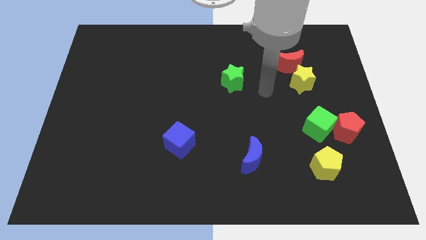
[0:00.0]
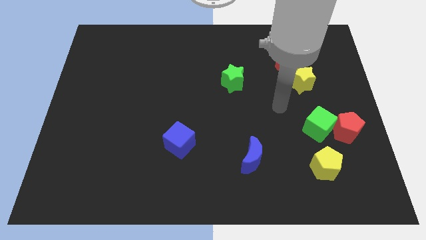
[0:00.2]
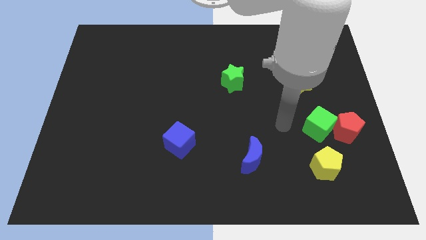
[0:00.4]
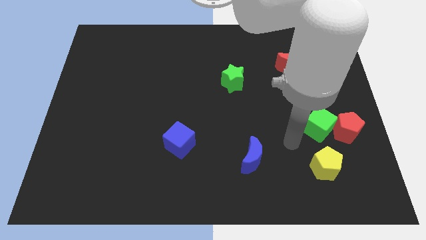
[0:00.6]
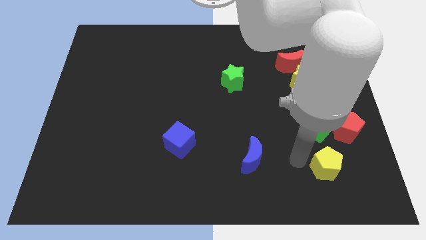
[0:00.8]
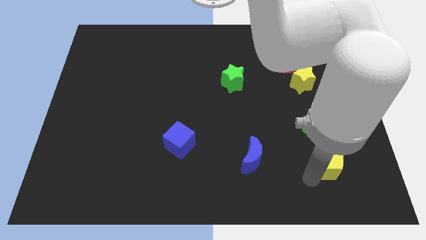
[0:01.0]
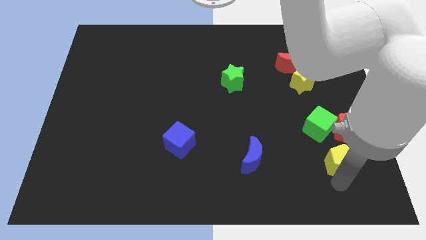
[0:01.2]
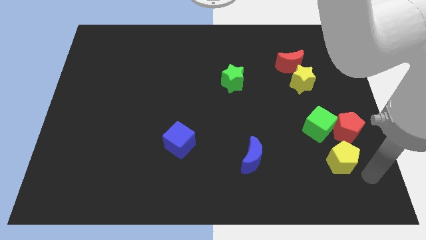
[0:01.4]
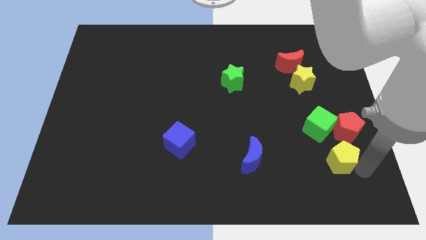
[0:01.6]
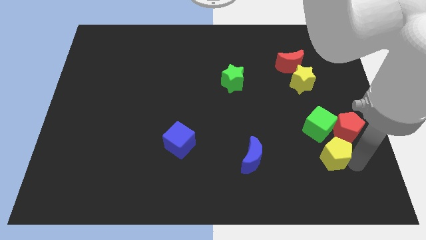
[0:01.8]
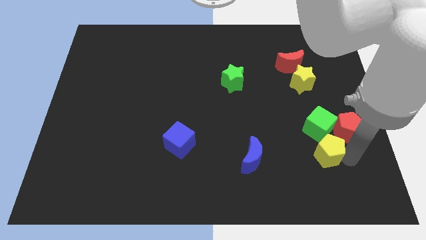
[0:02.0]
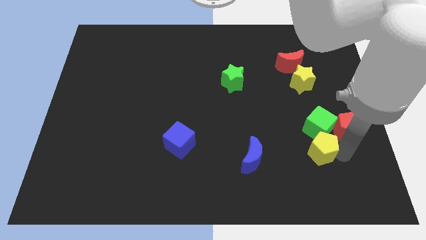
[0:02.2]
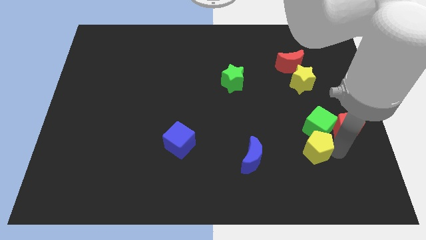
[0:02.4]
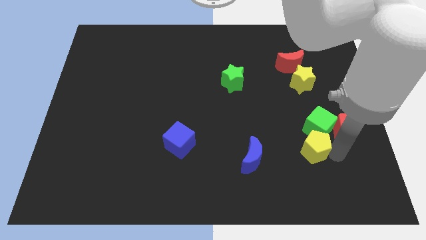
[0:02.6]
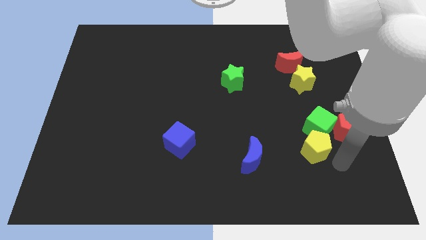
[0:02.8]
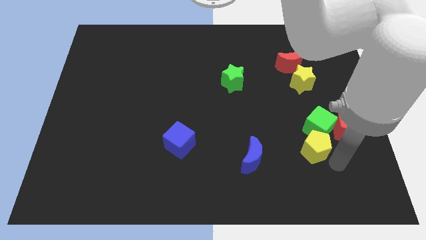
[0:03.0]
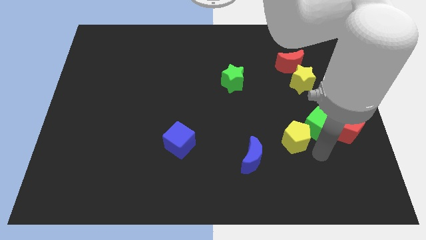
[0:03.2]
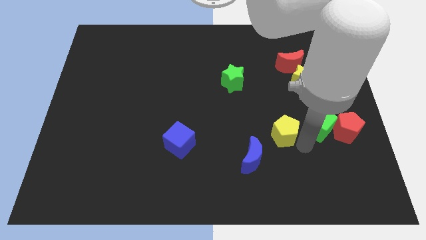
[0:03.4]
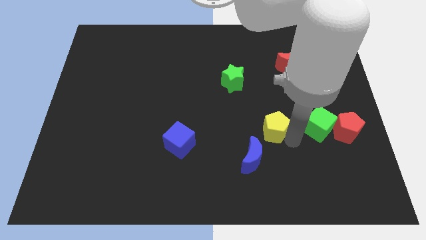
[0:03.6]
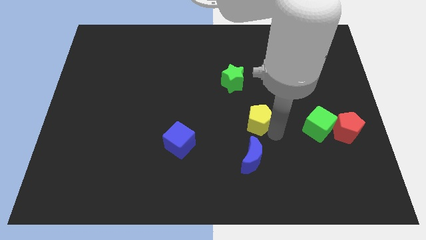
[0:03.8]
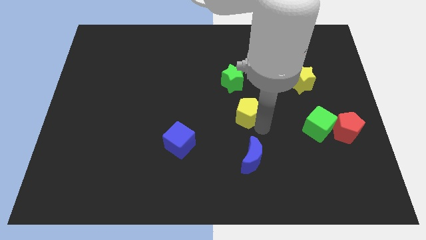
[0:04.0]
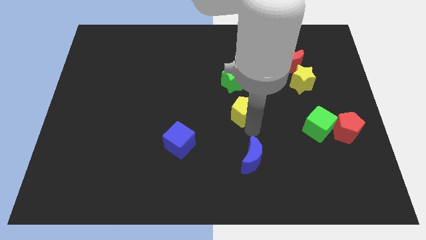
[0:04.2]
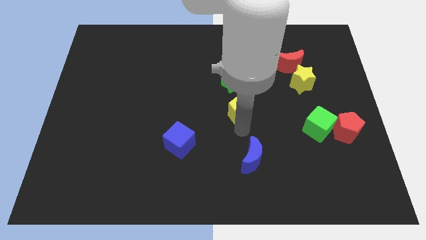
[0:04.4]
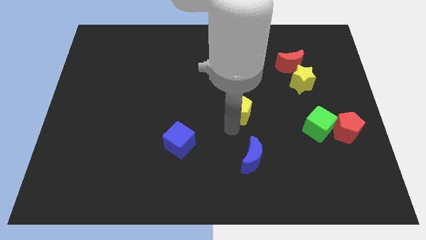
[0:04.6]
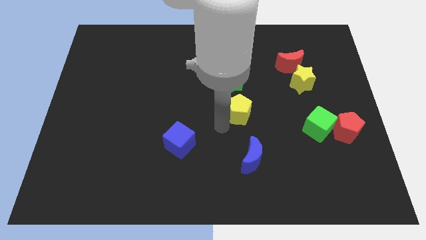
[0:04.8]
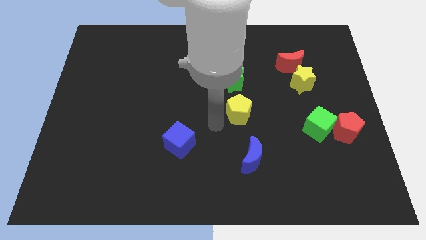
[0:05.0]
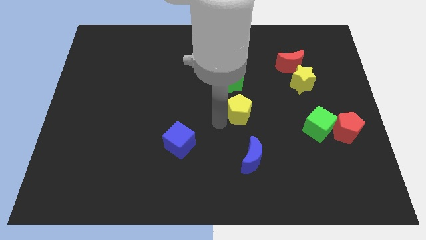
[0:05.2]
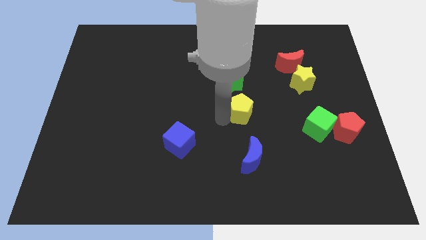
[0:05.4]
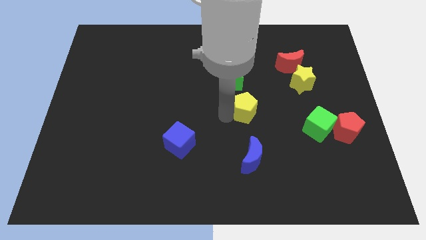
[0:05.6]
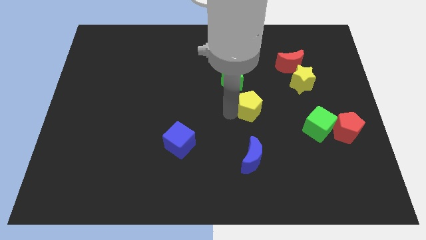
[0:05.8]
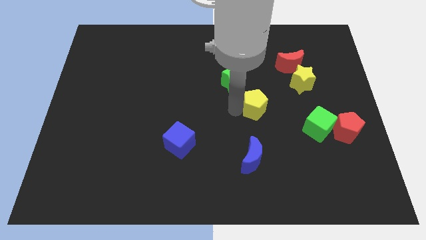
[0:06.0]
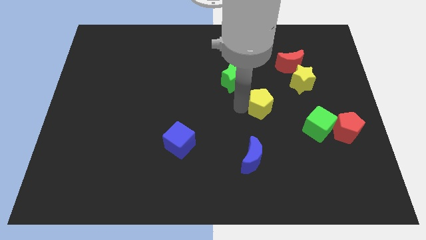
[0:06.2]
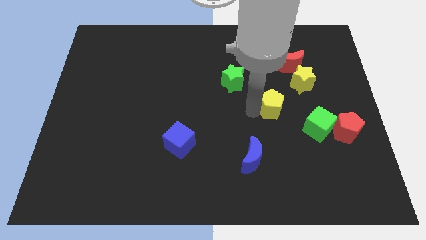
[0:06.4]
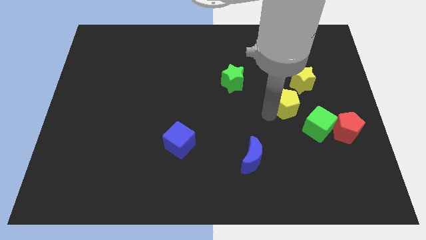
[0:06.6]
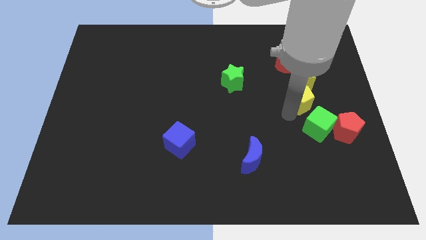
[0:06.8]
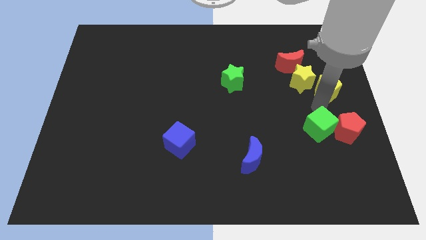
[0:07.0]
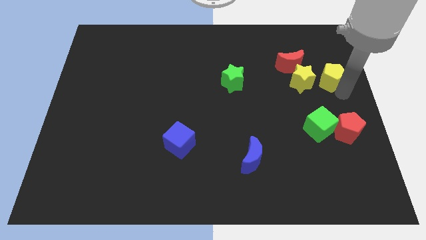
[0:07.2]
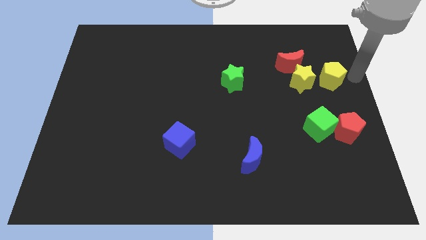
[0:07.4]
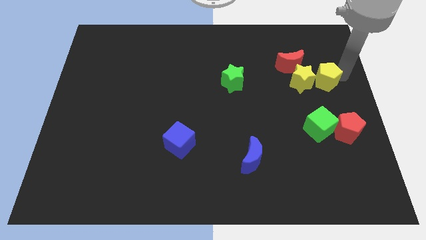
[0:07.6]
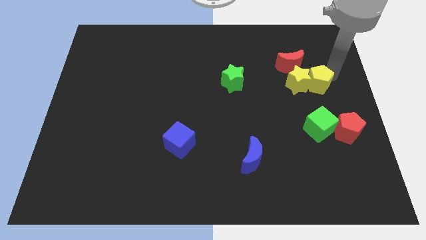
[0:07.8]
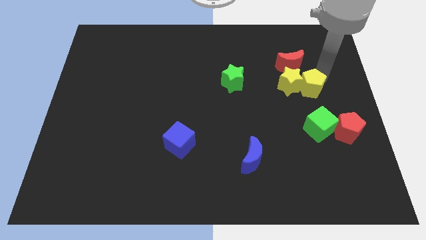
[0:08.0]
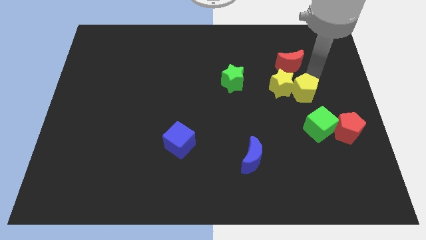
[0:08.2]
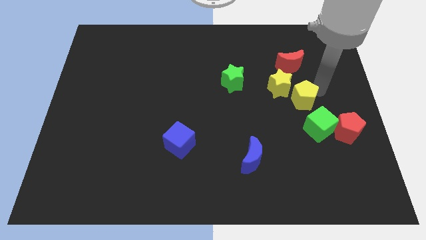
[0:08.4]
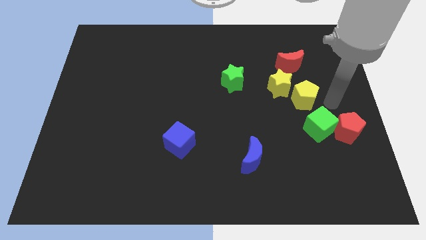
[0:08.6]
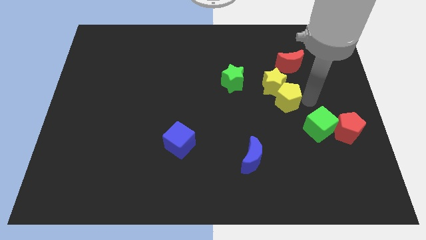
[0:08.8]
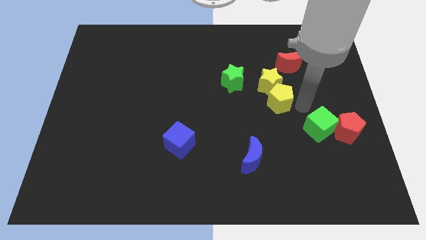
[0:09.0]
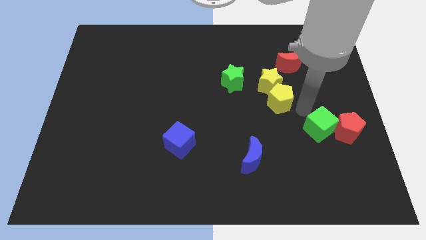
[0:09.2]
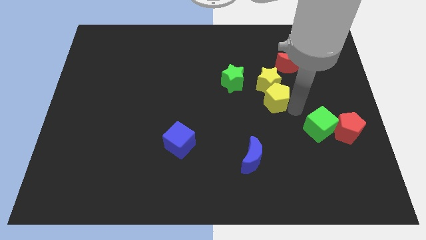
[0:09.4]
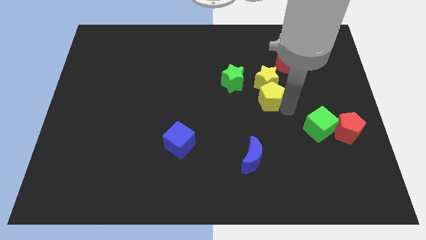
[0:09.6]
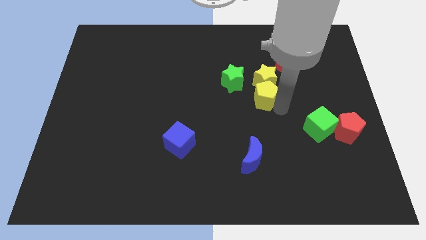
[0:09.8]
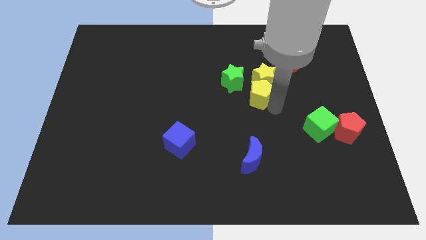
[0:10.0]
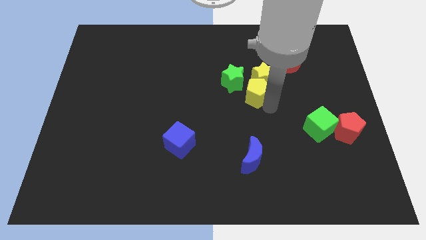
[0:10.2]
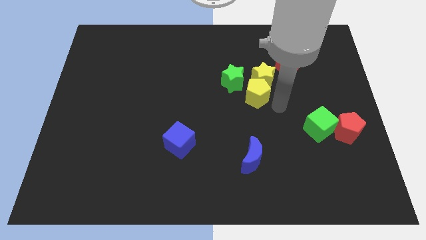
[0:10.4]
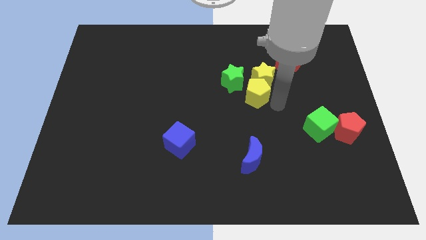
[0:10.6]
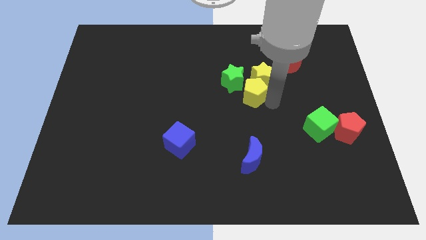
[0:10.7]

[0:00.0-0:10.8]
slide the yellow pentagon towards the green star

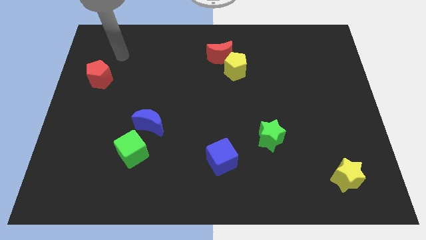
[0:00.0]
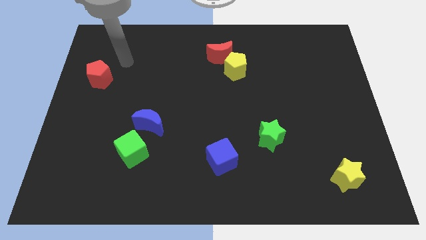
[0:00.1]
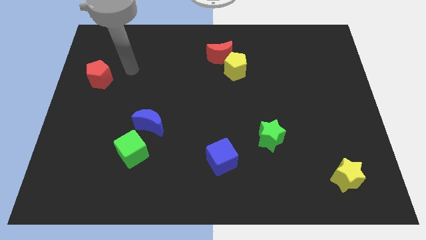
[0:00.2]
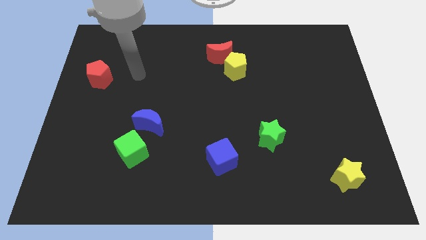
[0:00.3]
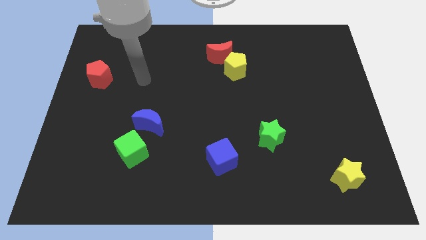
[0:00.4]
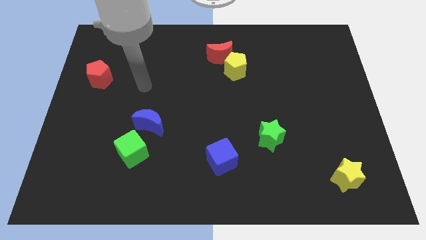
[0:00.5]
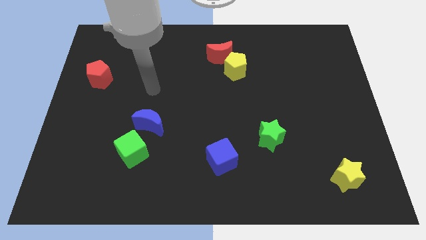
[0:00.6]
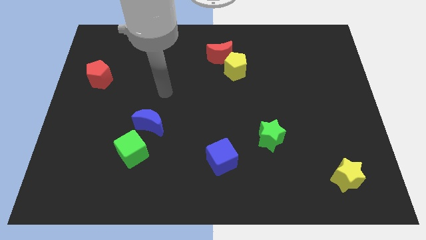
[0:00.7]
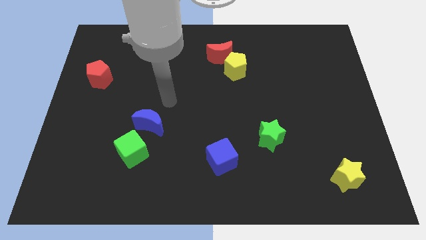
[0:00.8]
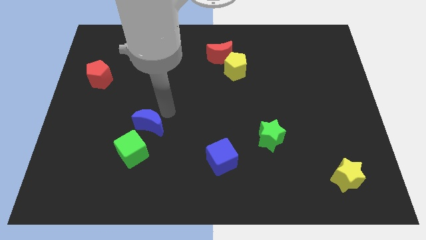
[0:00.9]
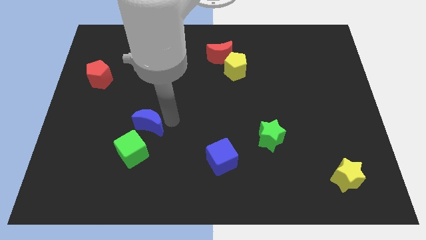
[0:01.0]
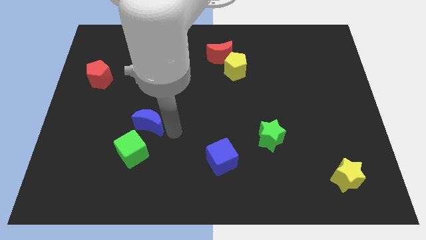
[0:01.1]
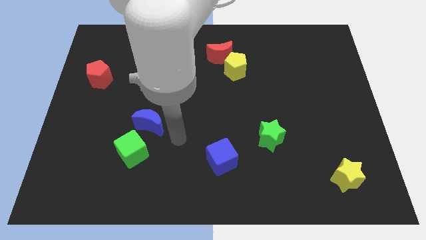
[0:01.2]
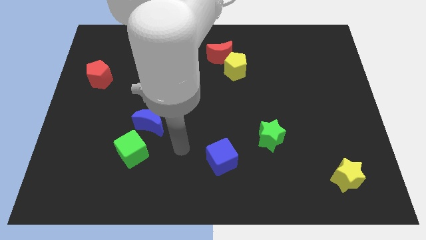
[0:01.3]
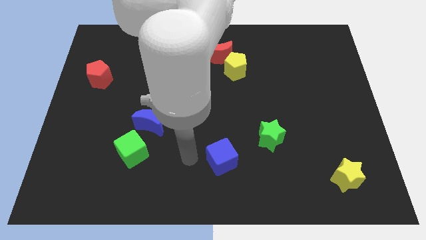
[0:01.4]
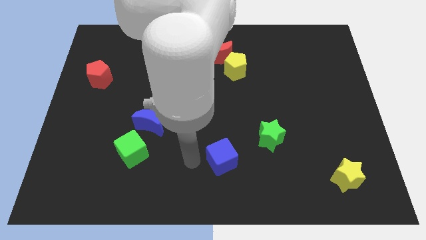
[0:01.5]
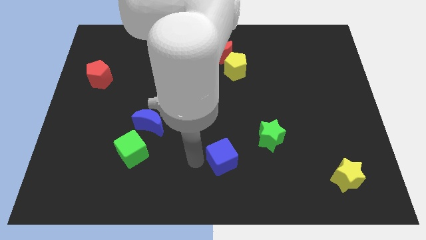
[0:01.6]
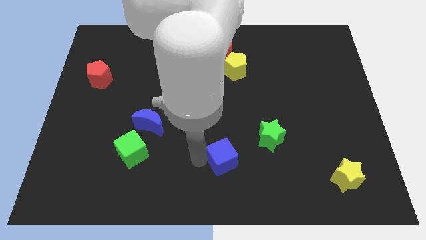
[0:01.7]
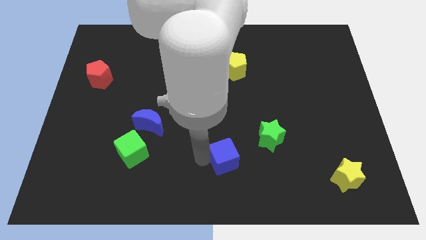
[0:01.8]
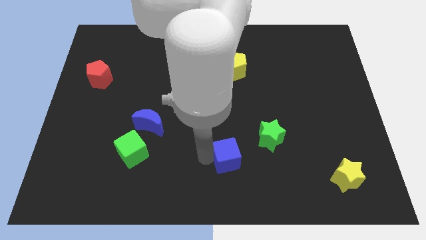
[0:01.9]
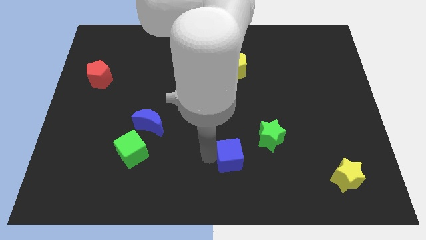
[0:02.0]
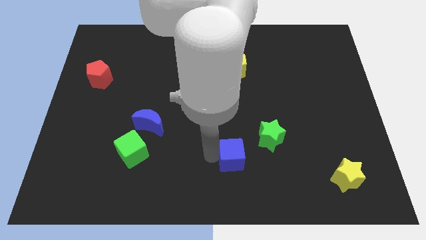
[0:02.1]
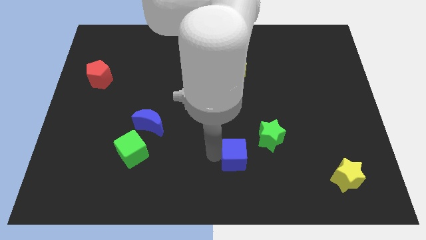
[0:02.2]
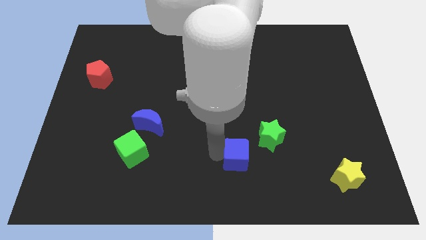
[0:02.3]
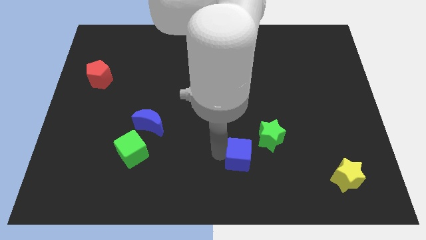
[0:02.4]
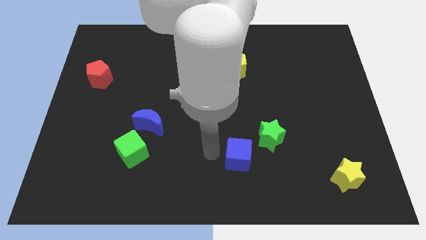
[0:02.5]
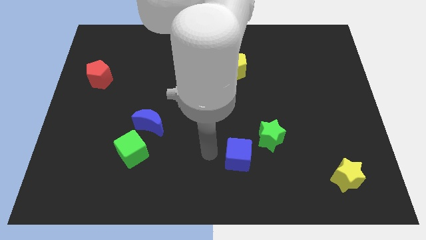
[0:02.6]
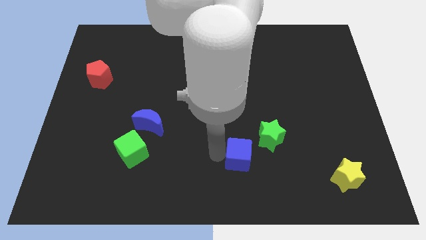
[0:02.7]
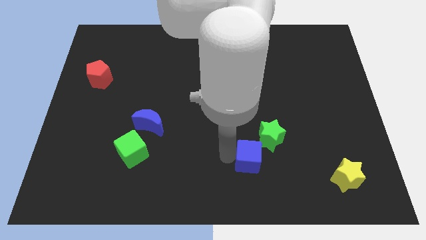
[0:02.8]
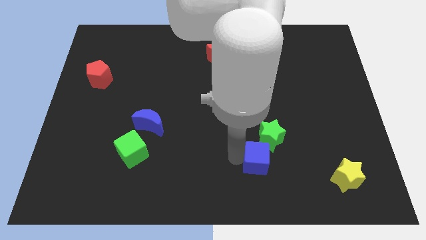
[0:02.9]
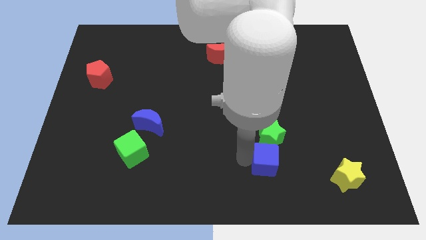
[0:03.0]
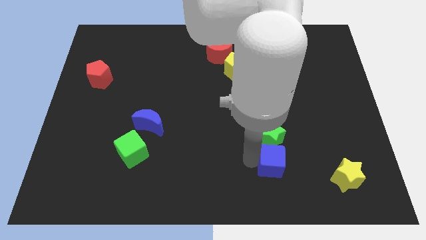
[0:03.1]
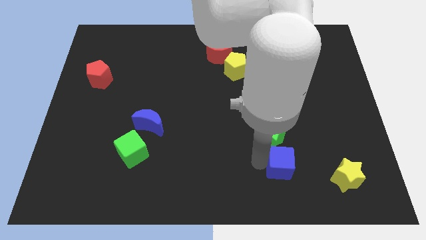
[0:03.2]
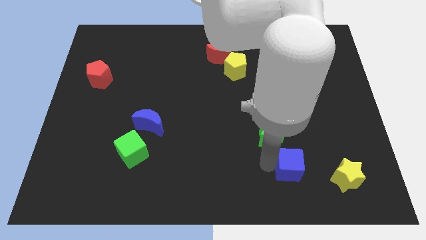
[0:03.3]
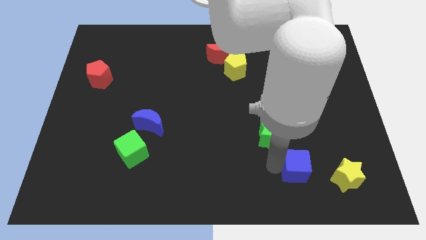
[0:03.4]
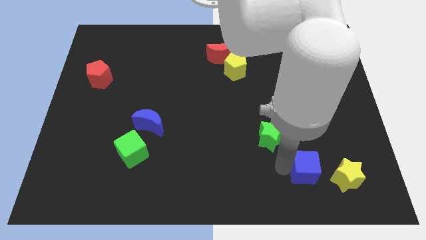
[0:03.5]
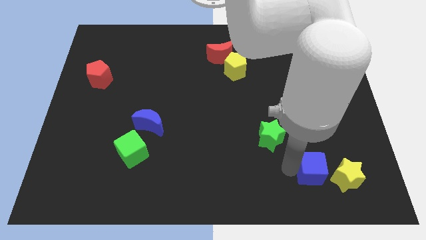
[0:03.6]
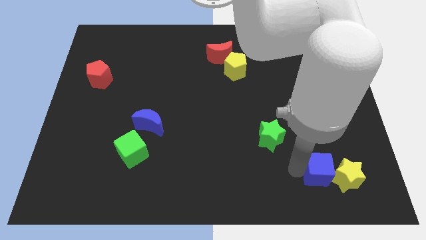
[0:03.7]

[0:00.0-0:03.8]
put the blue cube towards the yellow star
